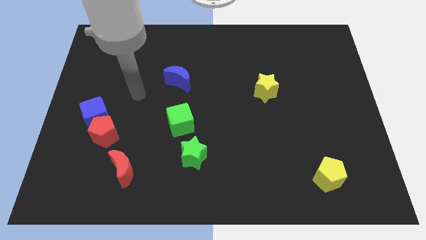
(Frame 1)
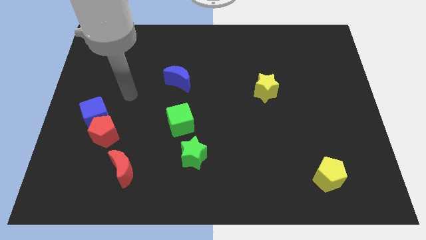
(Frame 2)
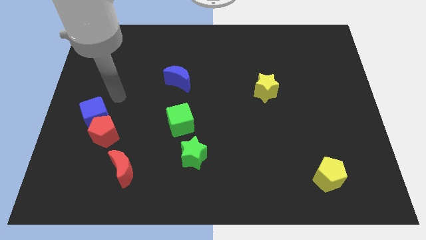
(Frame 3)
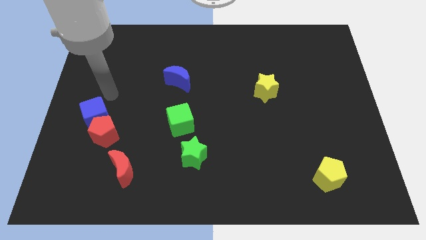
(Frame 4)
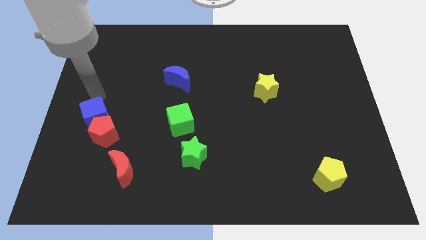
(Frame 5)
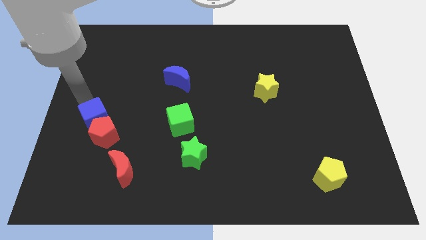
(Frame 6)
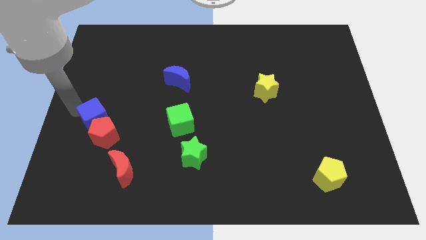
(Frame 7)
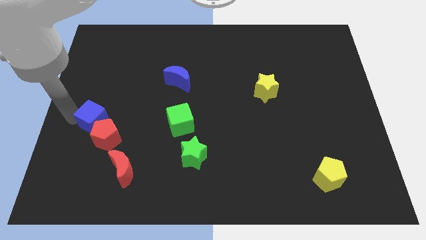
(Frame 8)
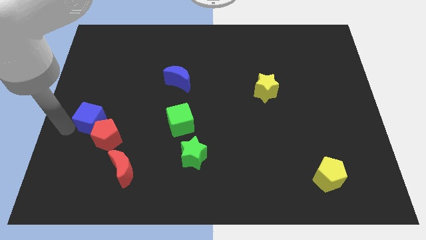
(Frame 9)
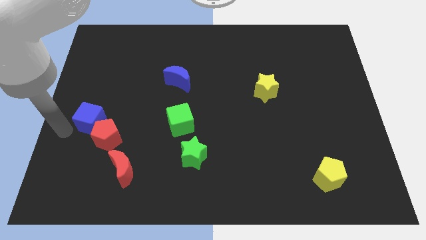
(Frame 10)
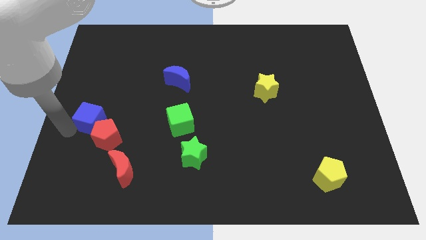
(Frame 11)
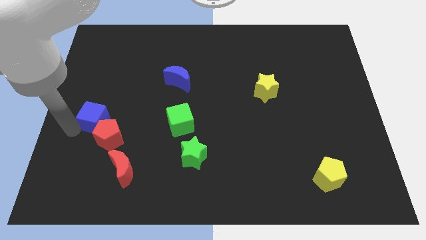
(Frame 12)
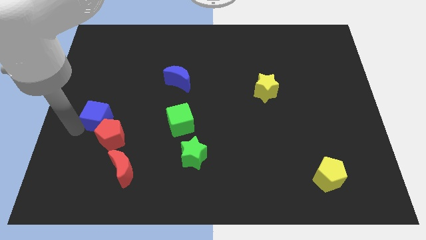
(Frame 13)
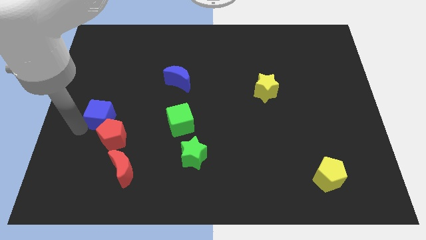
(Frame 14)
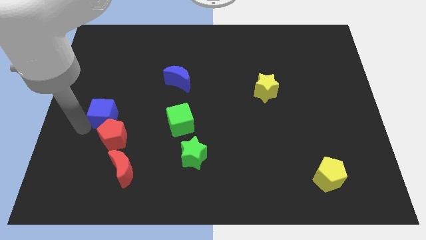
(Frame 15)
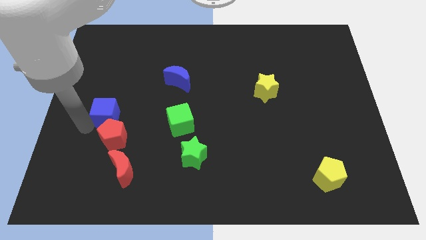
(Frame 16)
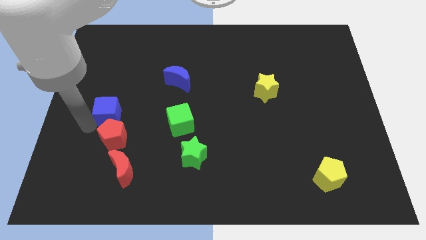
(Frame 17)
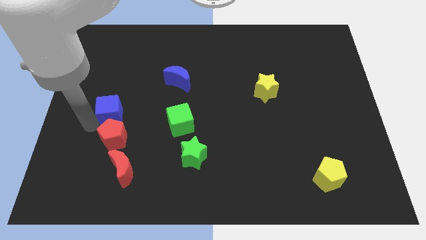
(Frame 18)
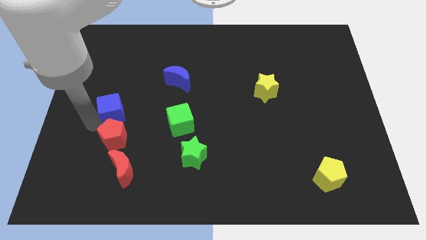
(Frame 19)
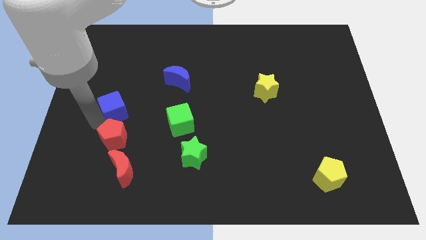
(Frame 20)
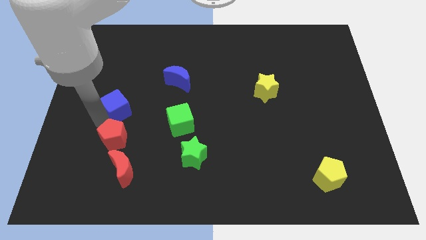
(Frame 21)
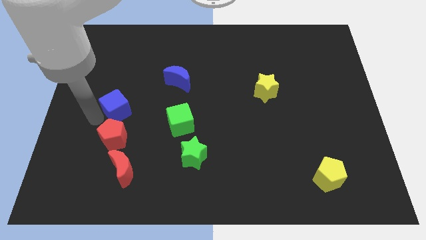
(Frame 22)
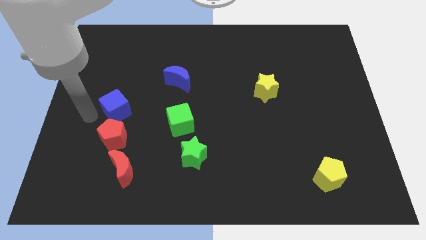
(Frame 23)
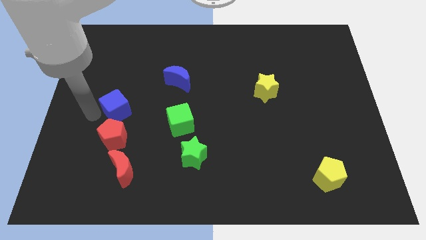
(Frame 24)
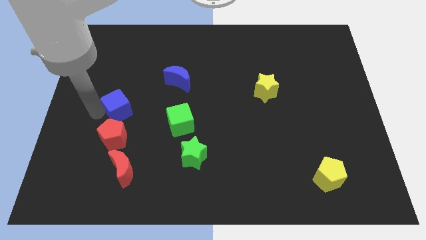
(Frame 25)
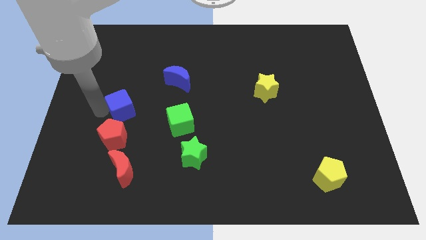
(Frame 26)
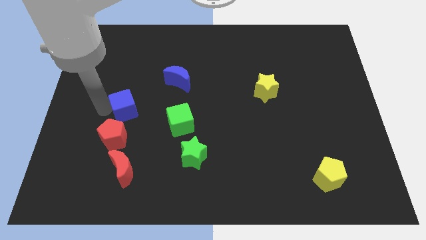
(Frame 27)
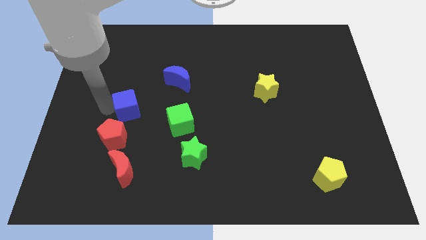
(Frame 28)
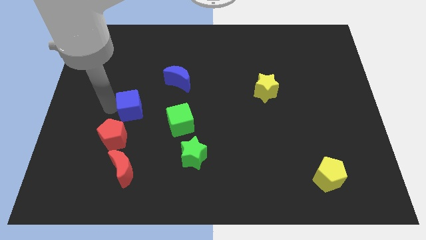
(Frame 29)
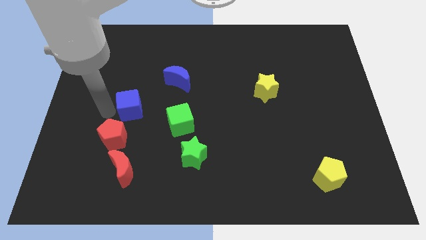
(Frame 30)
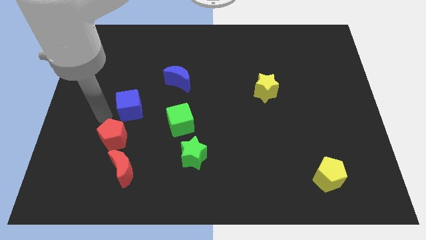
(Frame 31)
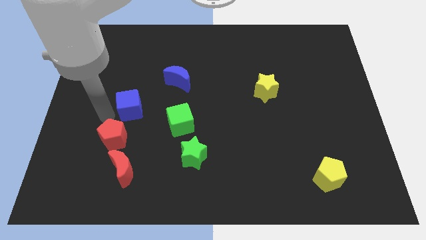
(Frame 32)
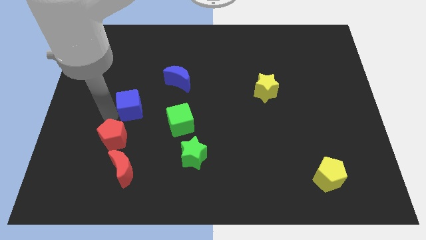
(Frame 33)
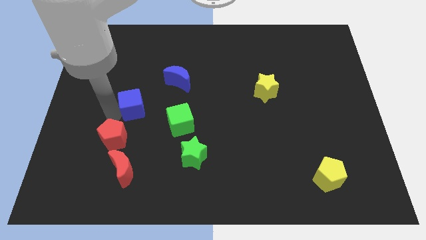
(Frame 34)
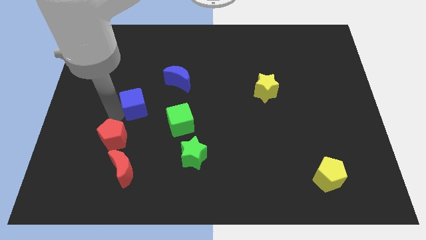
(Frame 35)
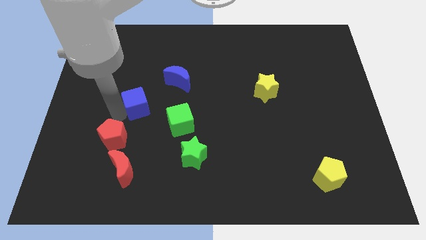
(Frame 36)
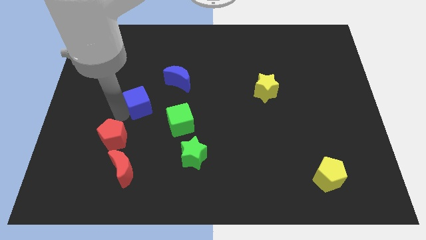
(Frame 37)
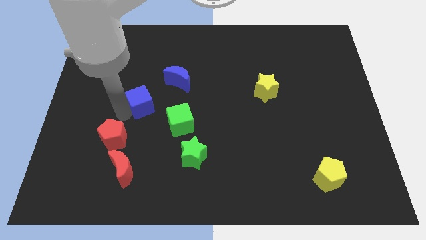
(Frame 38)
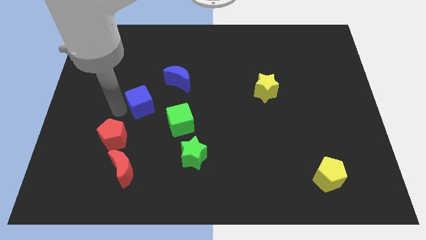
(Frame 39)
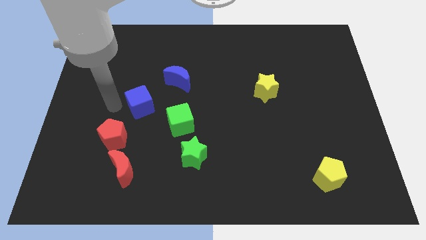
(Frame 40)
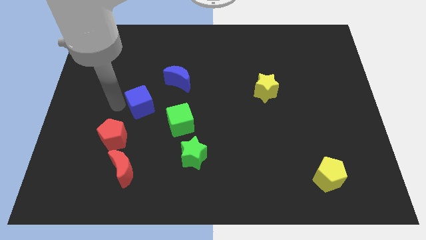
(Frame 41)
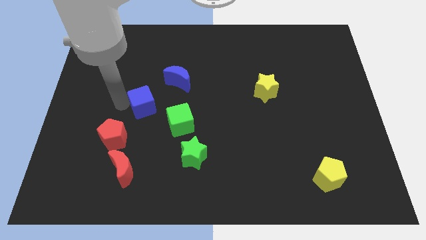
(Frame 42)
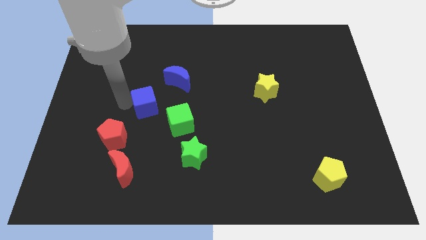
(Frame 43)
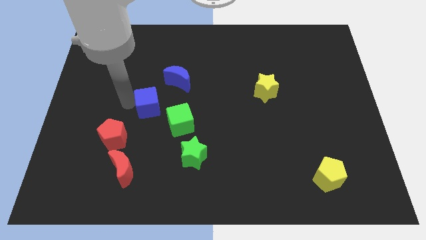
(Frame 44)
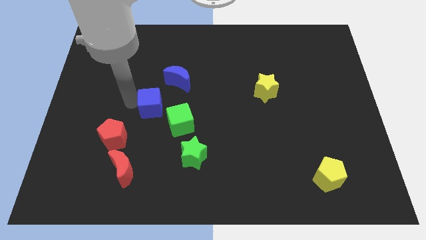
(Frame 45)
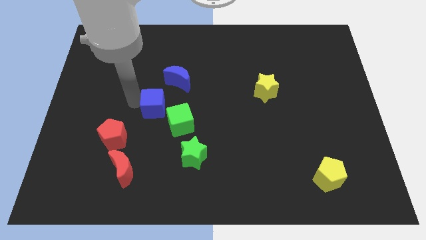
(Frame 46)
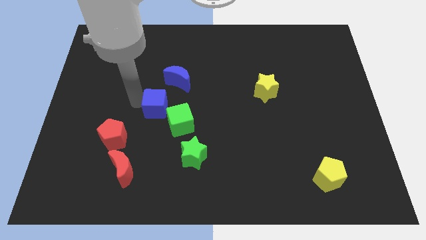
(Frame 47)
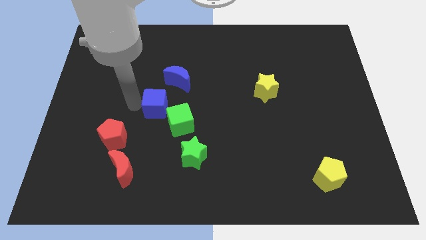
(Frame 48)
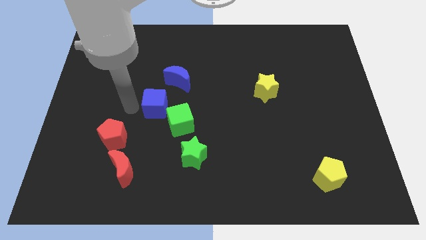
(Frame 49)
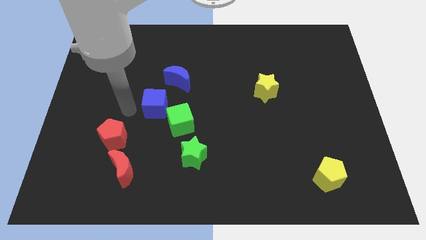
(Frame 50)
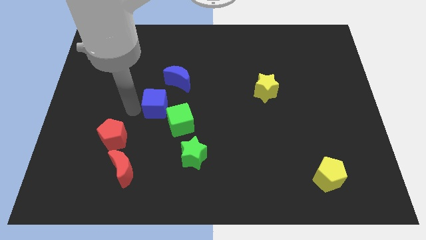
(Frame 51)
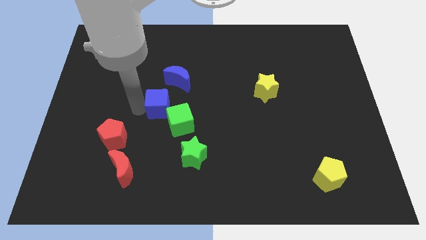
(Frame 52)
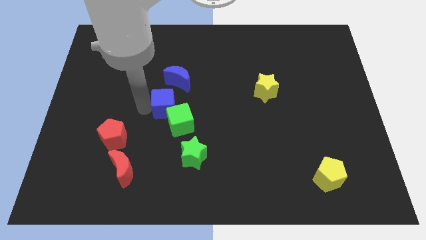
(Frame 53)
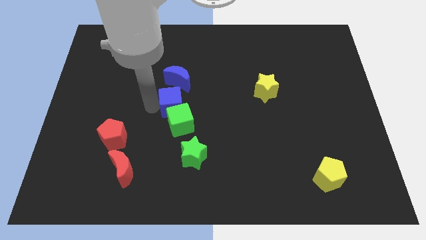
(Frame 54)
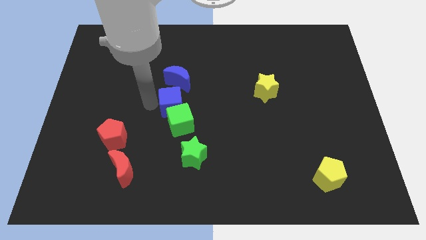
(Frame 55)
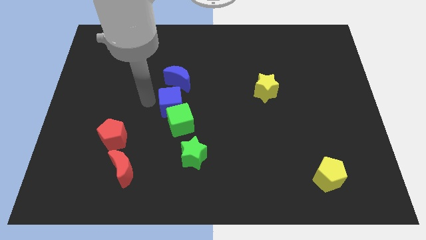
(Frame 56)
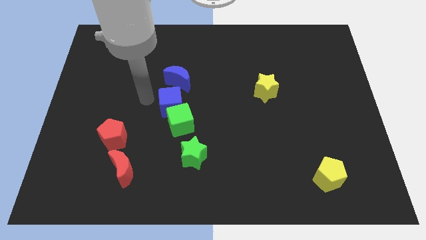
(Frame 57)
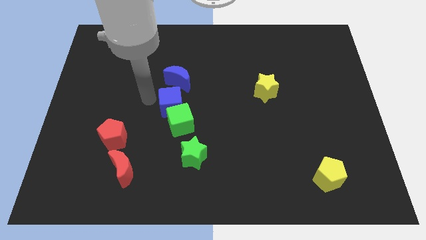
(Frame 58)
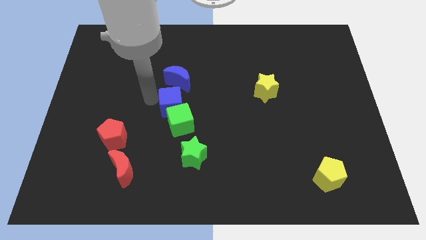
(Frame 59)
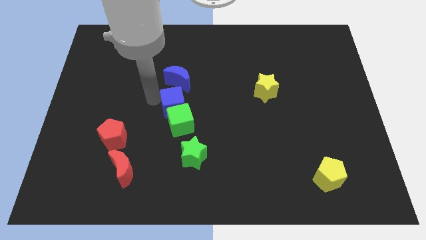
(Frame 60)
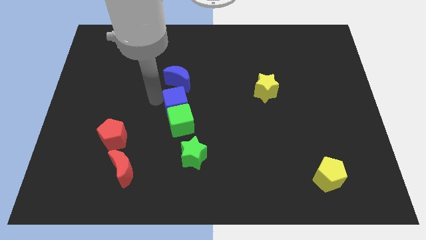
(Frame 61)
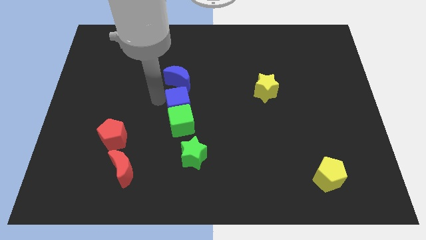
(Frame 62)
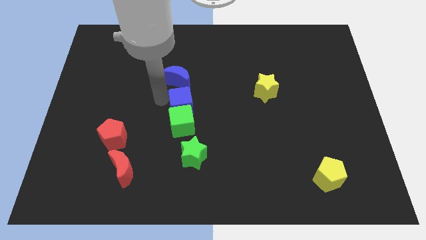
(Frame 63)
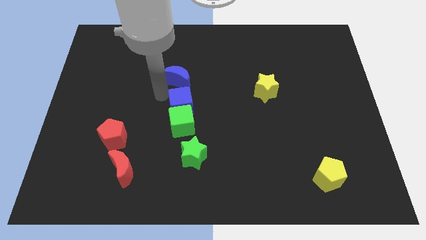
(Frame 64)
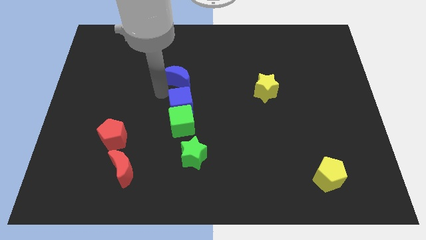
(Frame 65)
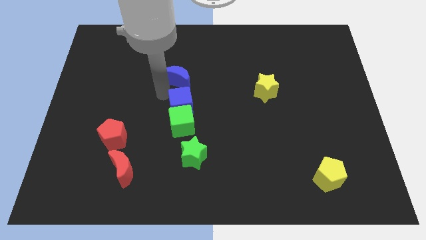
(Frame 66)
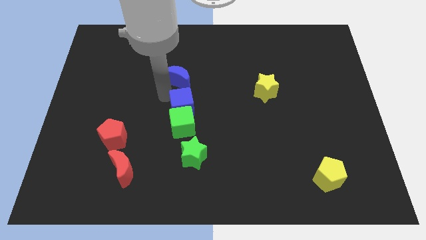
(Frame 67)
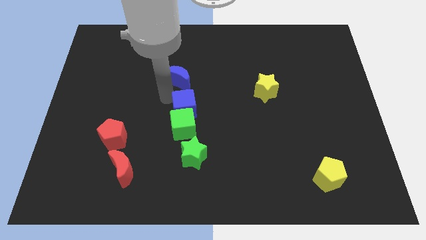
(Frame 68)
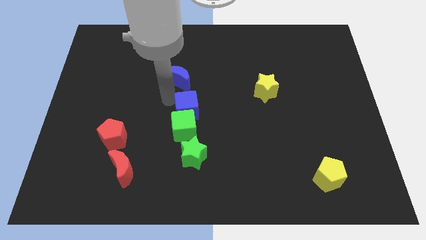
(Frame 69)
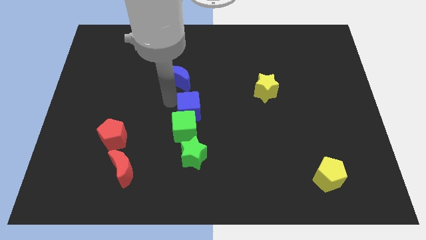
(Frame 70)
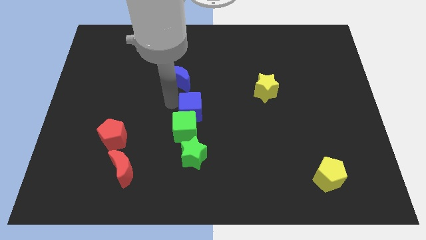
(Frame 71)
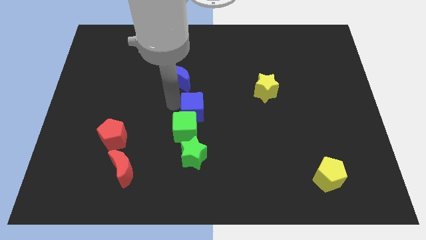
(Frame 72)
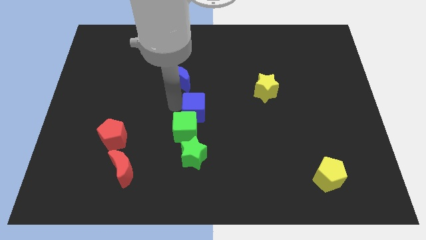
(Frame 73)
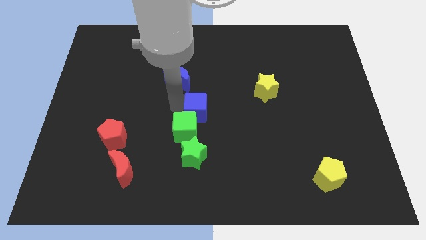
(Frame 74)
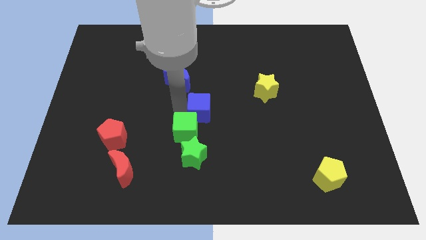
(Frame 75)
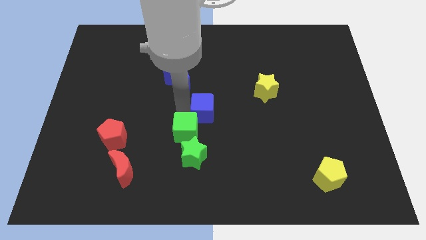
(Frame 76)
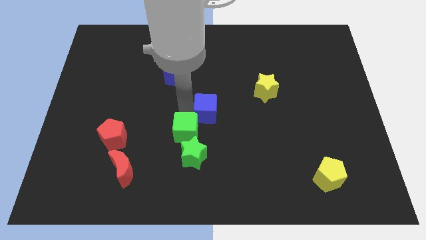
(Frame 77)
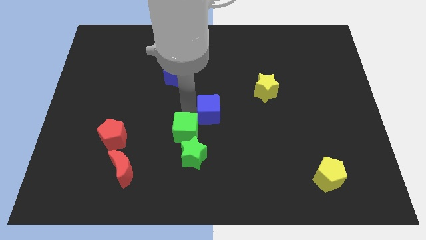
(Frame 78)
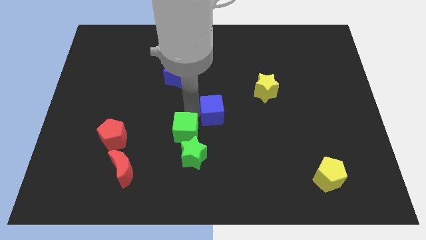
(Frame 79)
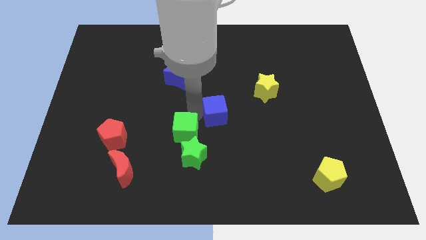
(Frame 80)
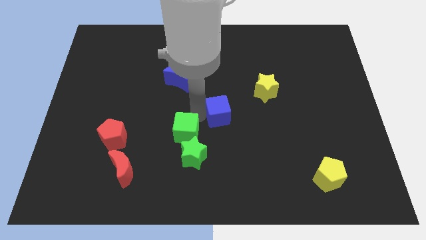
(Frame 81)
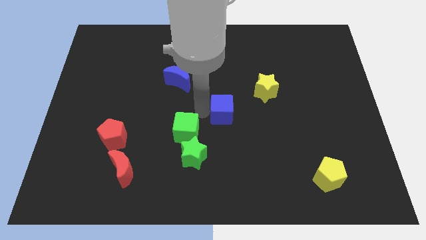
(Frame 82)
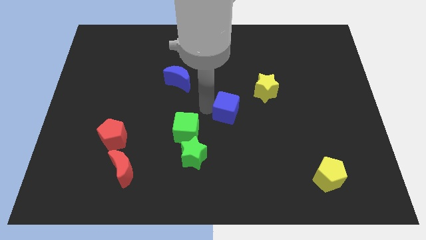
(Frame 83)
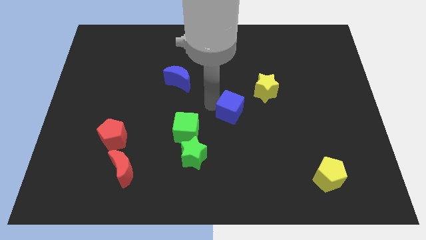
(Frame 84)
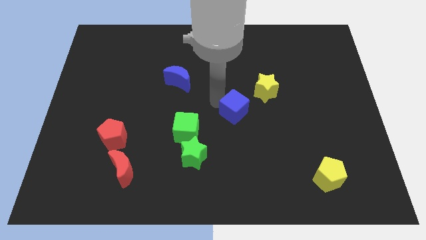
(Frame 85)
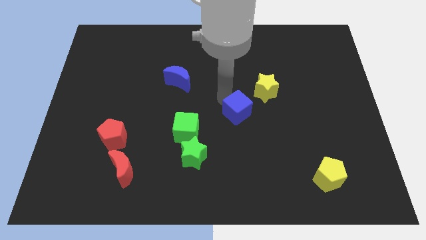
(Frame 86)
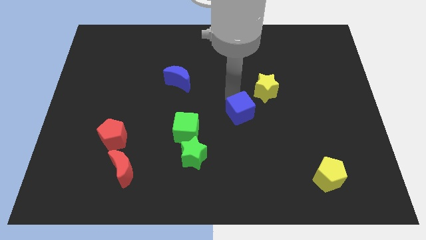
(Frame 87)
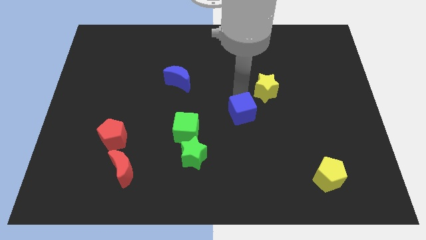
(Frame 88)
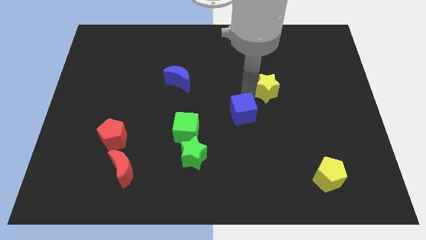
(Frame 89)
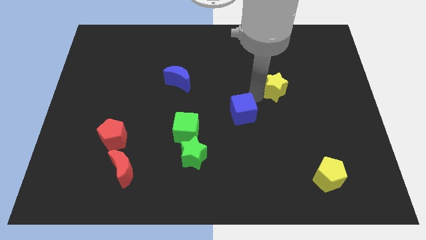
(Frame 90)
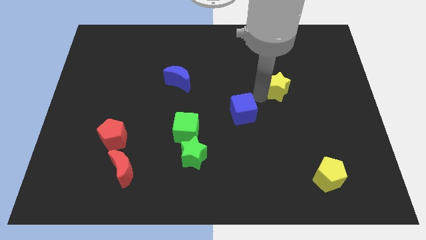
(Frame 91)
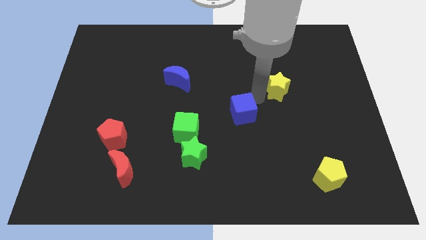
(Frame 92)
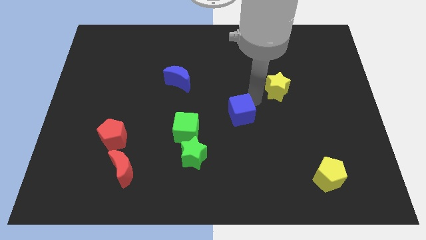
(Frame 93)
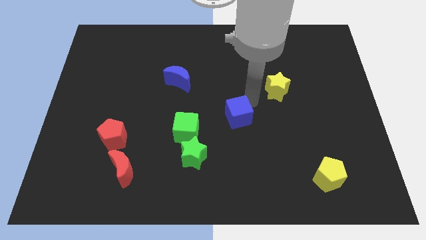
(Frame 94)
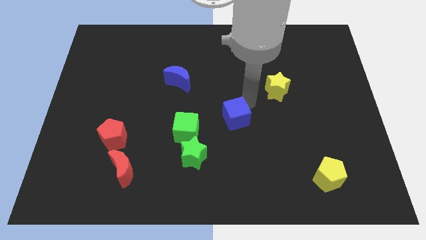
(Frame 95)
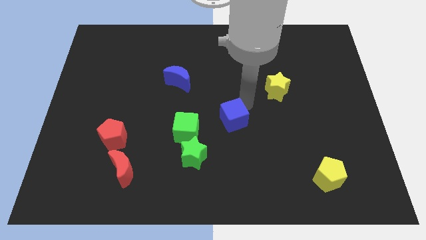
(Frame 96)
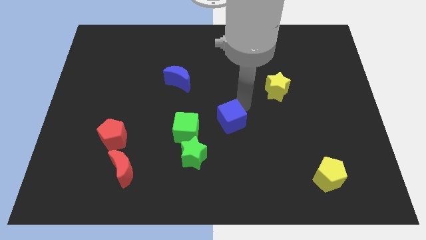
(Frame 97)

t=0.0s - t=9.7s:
slide the blue cube diagonally up and to the right of the green star
